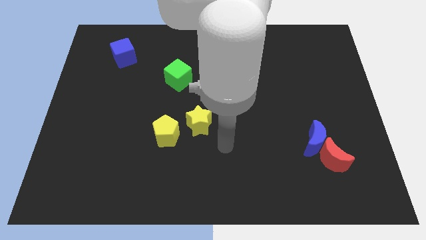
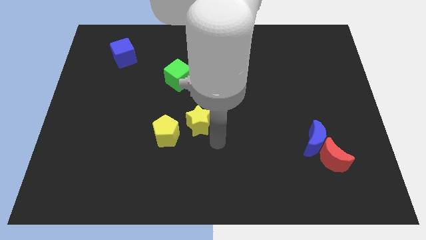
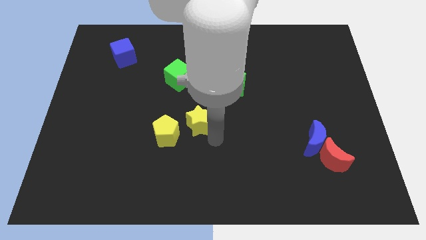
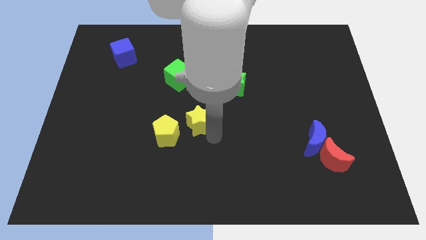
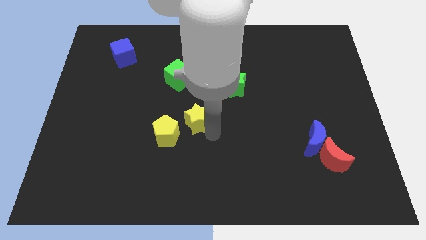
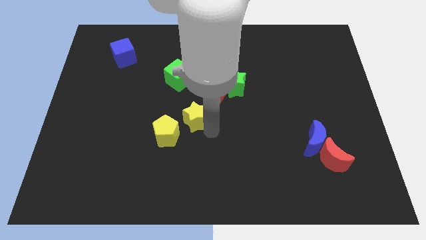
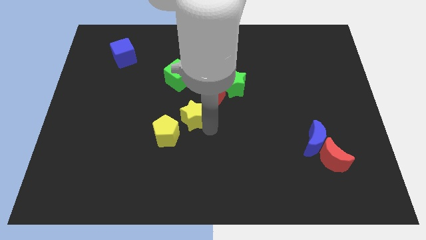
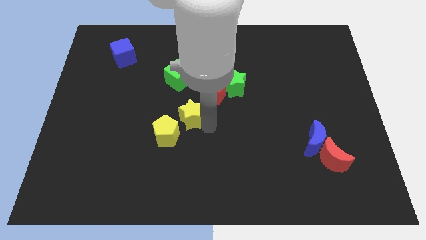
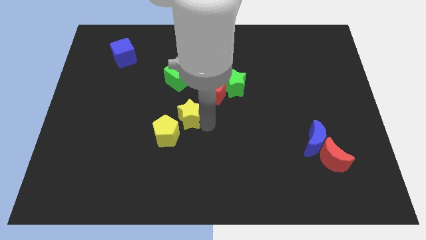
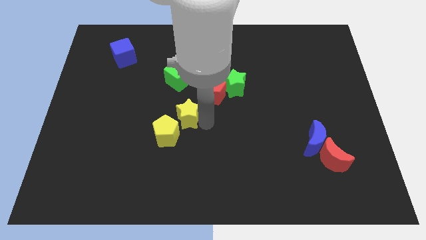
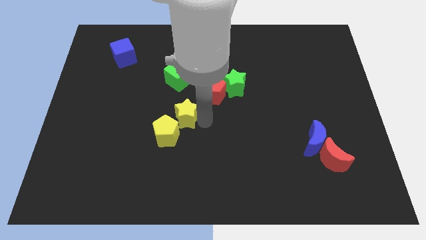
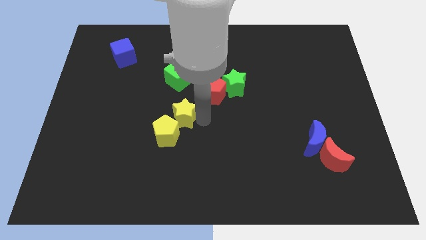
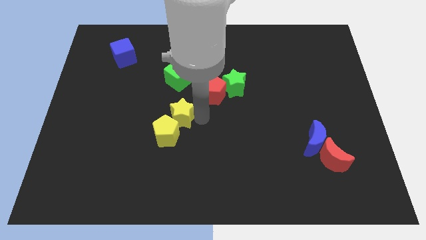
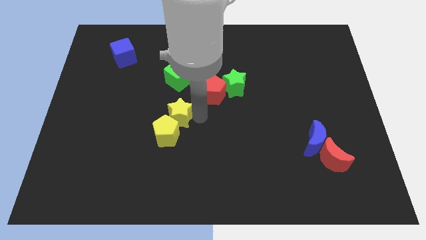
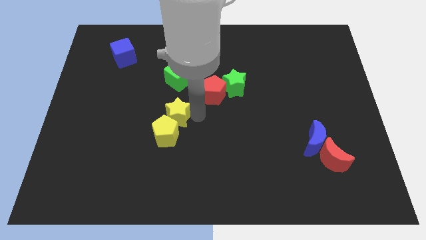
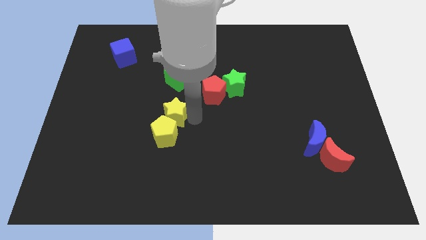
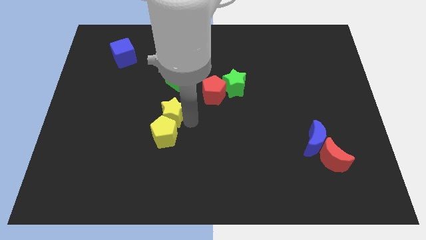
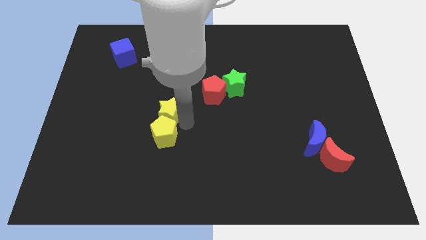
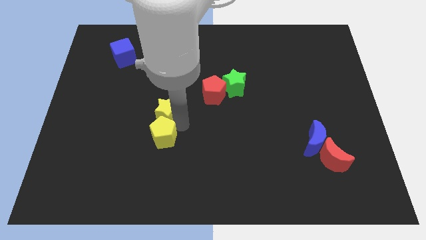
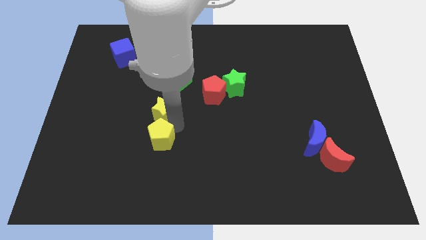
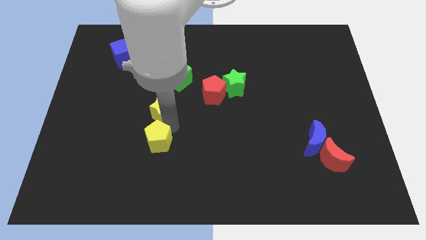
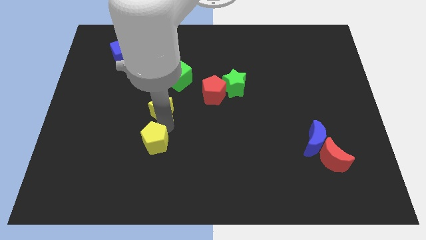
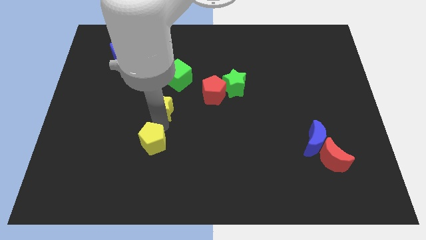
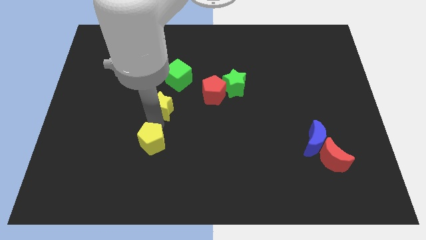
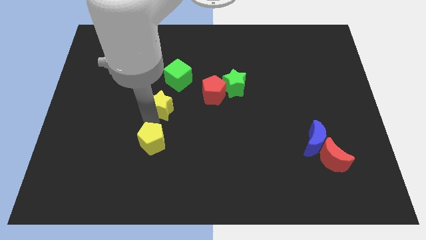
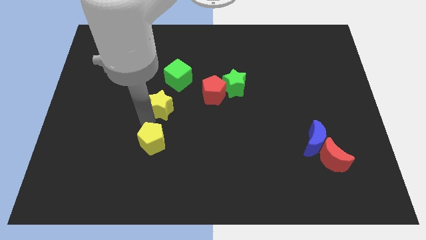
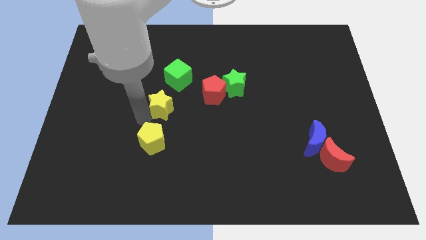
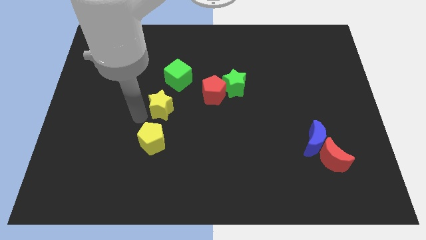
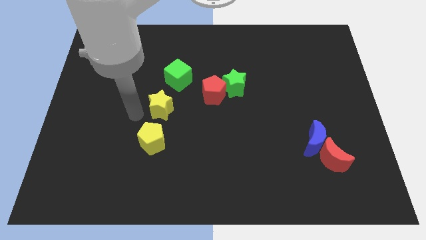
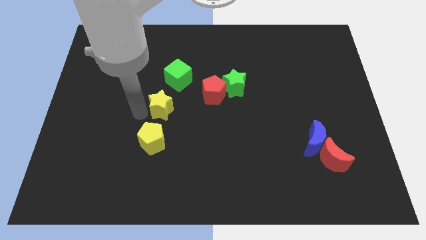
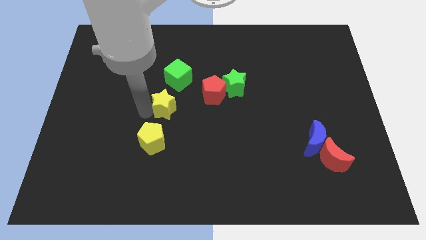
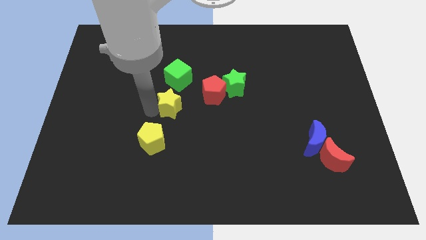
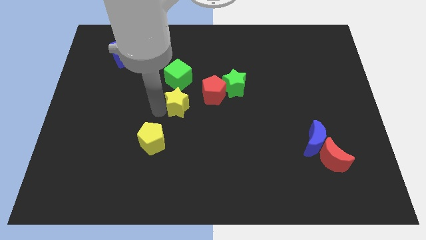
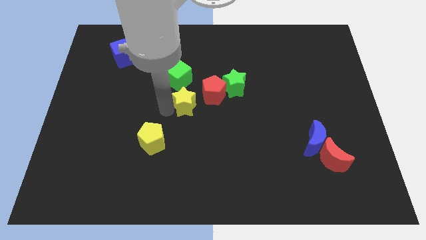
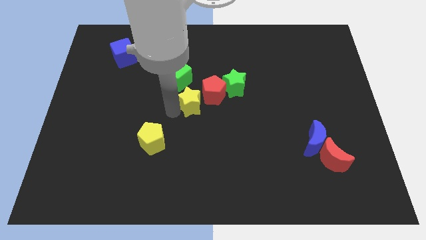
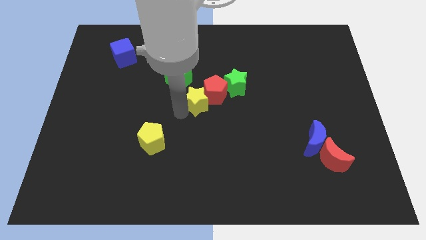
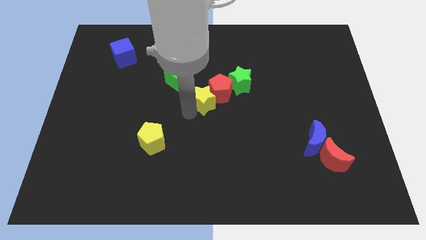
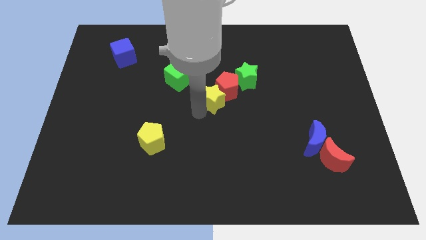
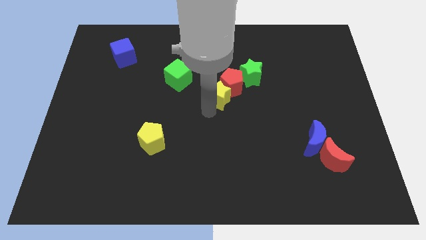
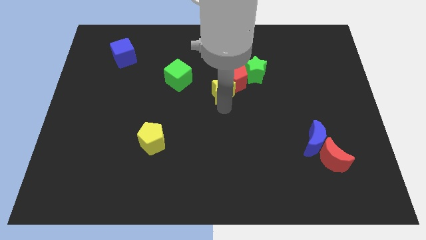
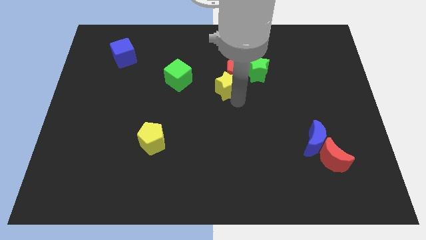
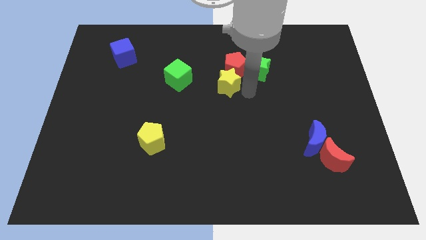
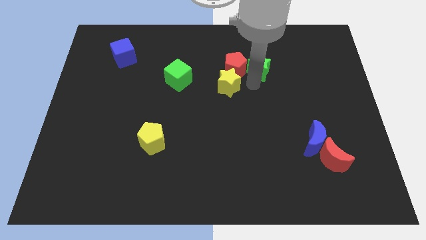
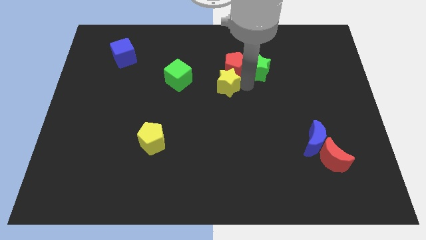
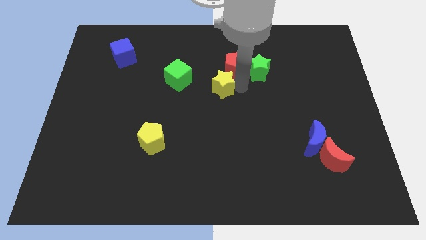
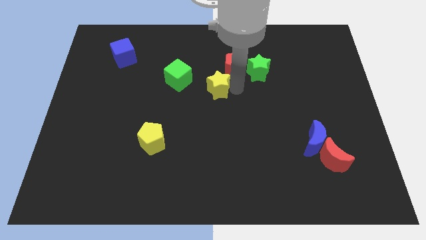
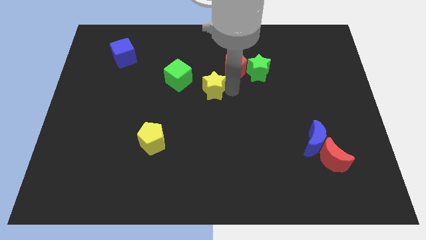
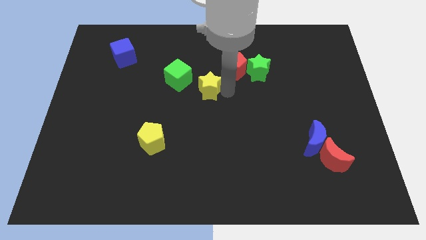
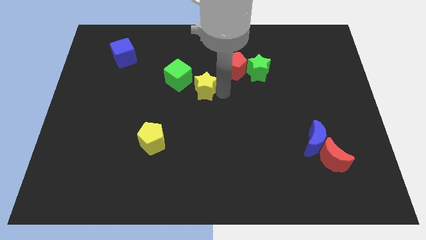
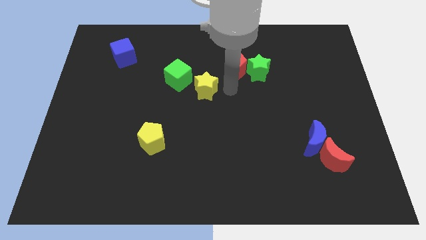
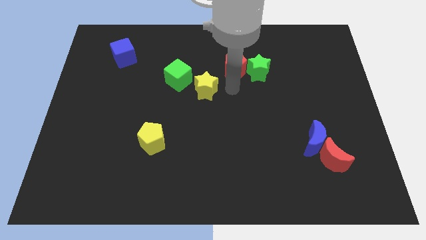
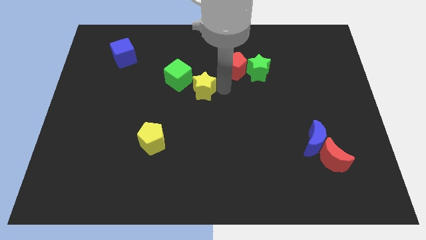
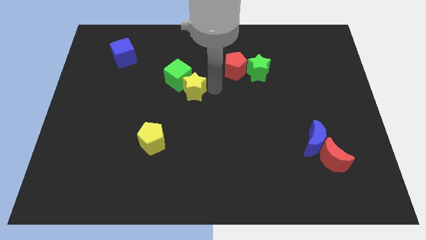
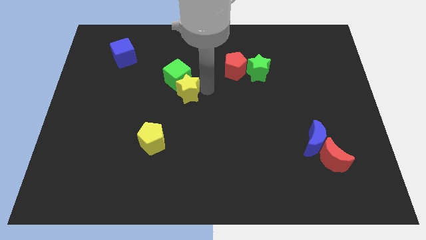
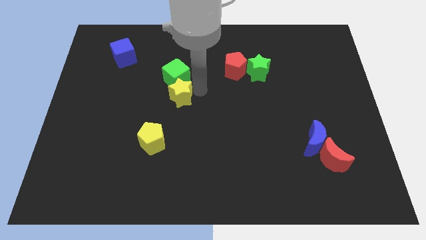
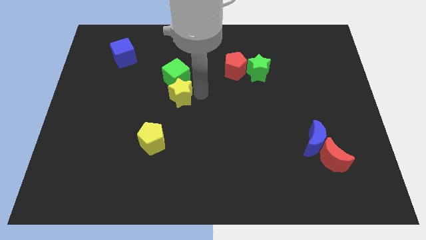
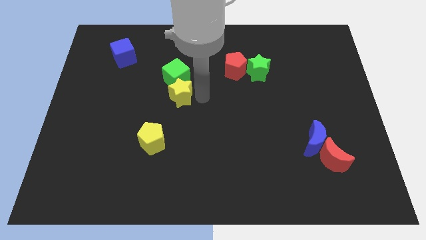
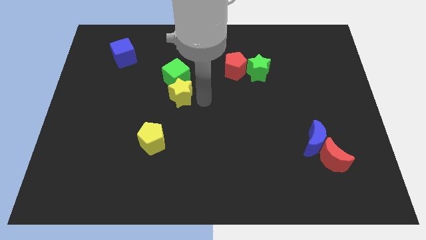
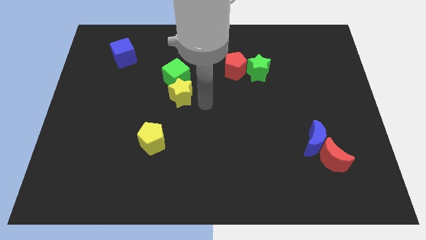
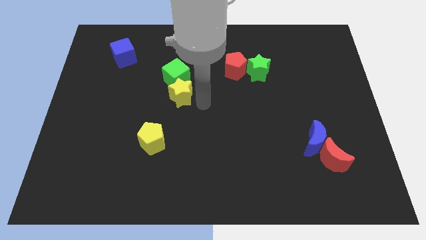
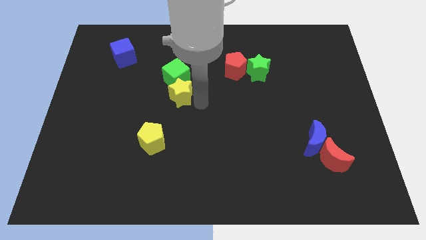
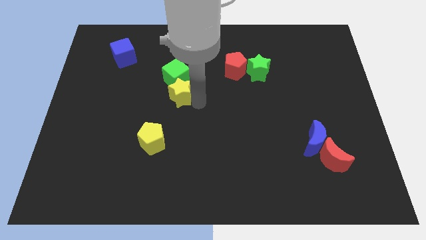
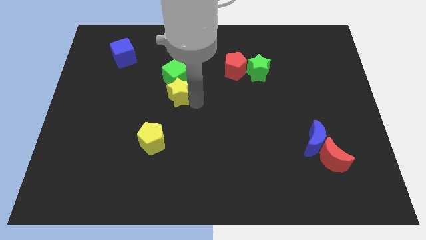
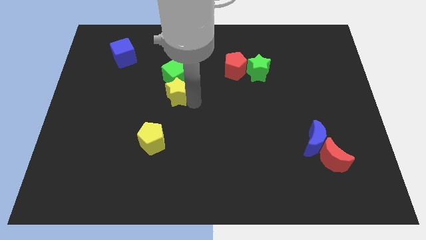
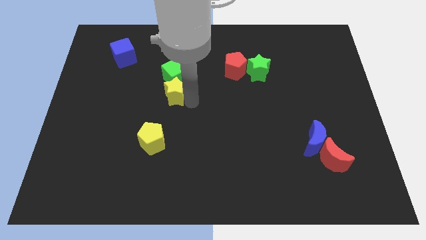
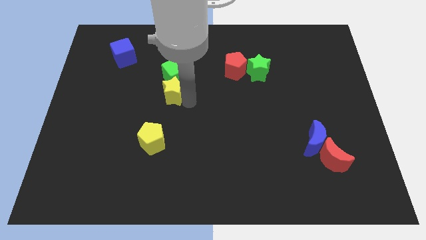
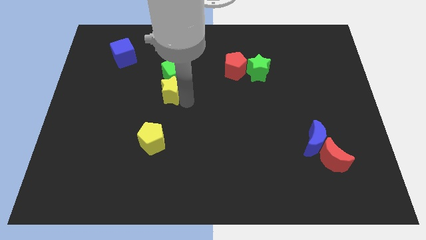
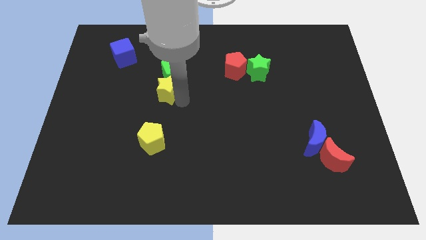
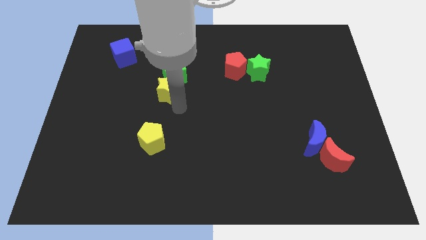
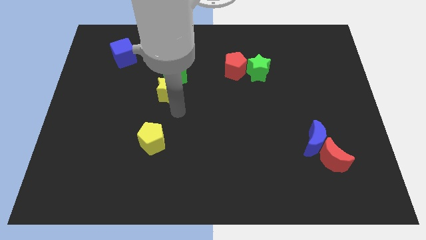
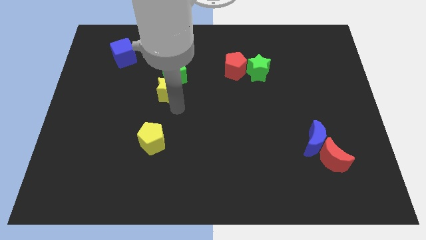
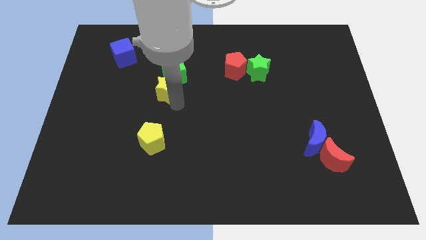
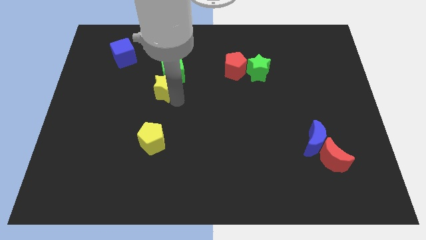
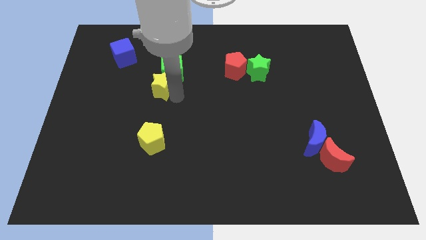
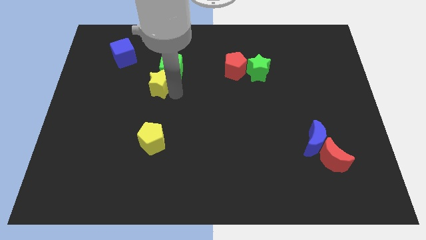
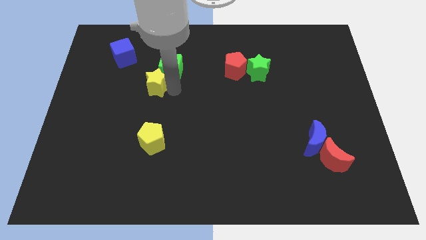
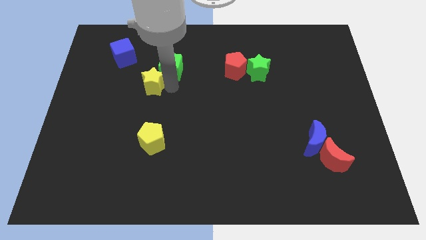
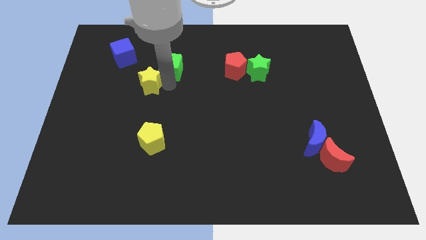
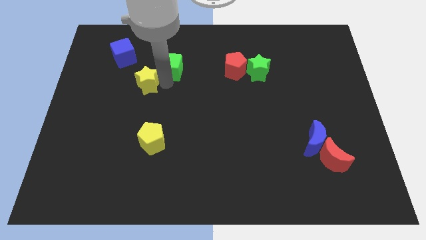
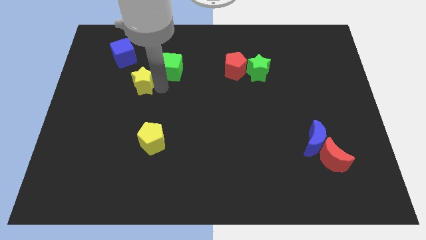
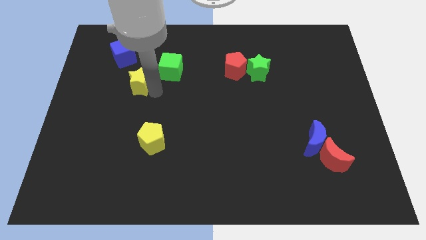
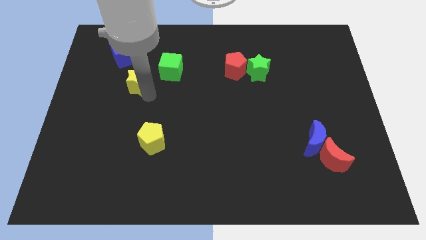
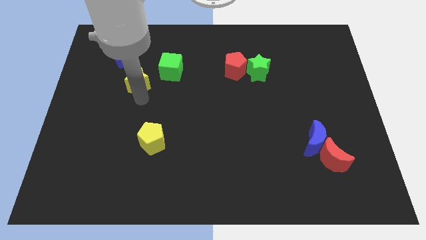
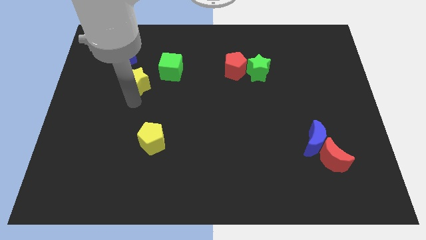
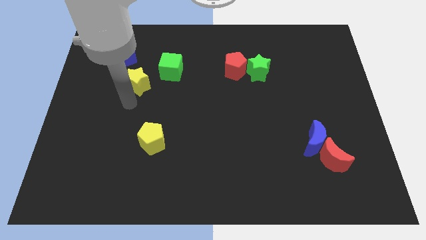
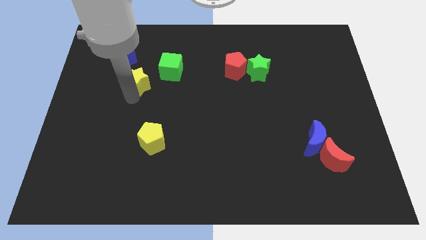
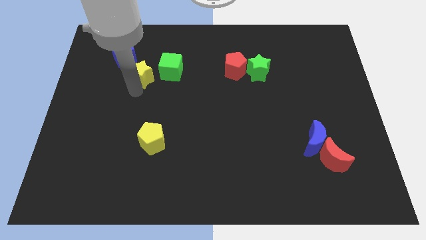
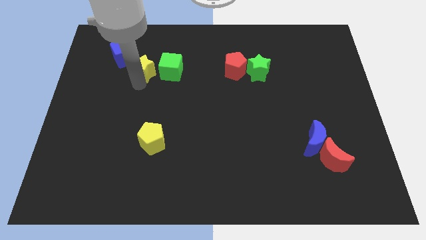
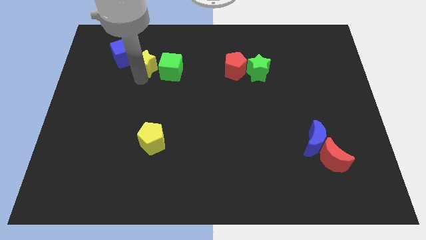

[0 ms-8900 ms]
move the yellow star to the top left side of the green cube
